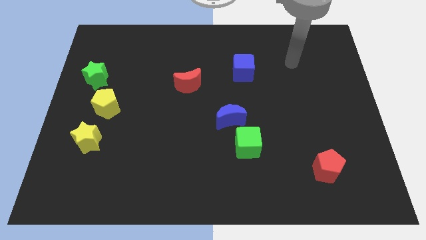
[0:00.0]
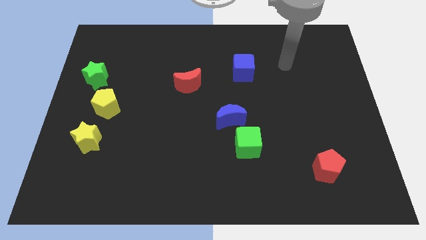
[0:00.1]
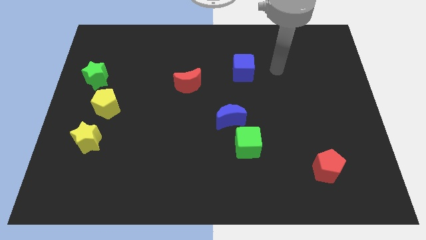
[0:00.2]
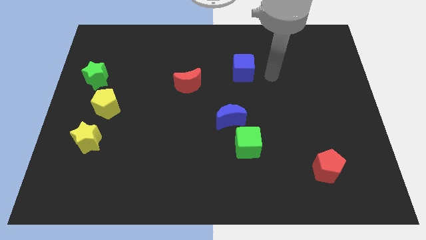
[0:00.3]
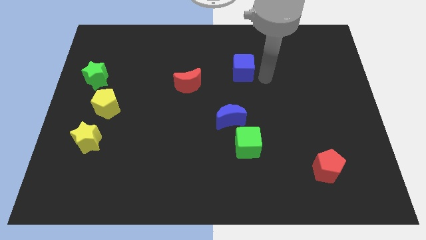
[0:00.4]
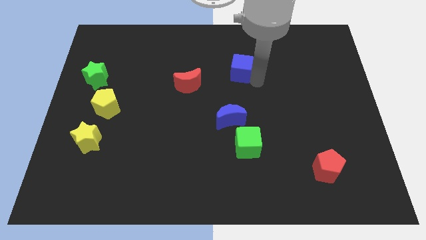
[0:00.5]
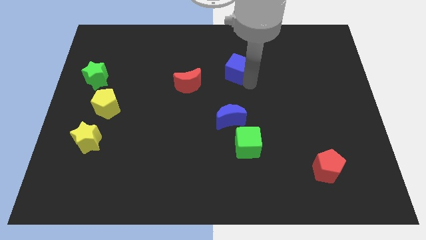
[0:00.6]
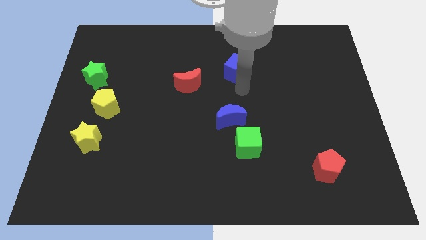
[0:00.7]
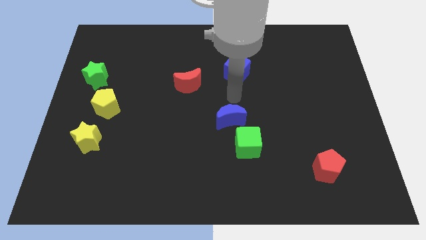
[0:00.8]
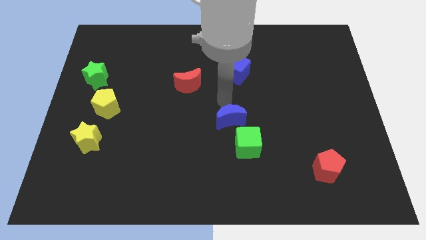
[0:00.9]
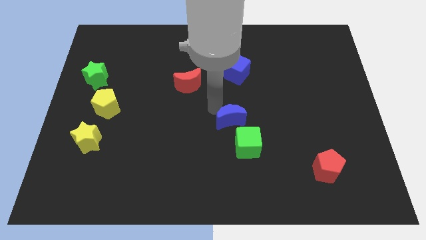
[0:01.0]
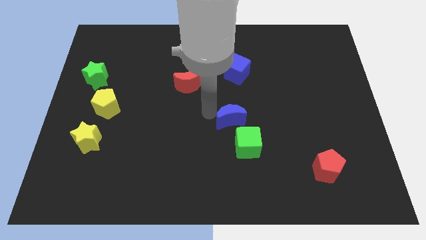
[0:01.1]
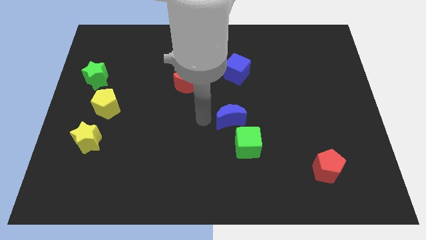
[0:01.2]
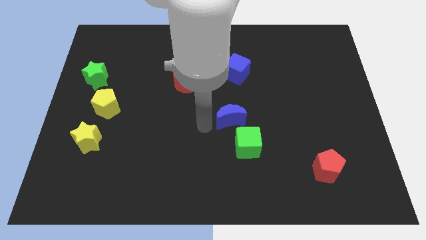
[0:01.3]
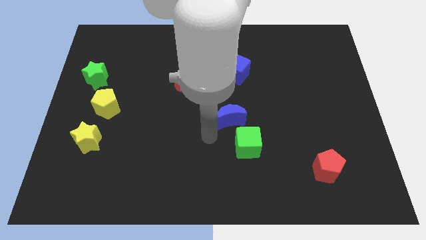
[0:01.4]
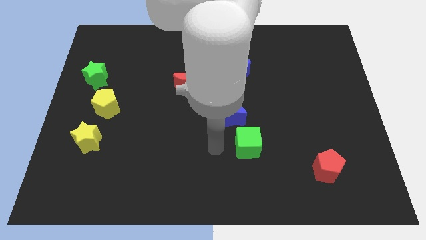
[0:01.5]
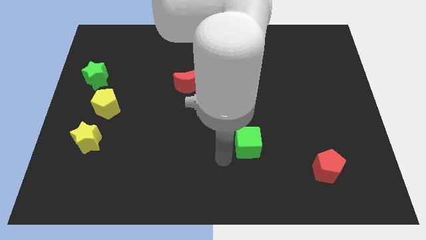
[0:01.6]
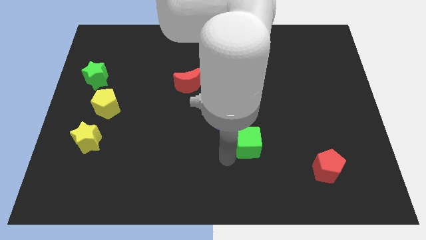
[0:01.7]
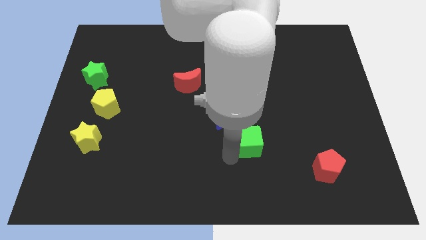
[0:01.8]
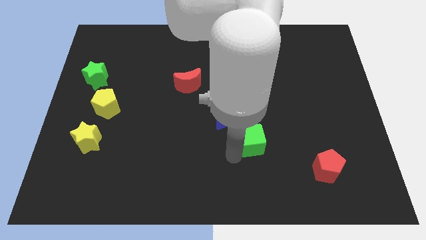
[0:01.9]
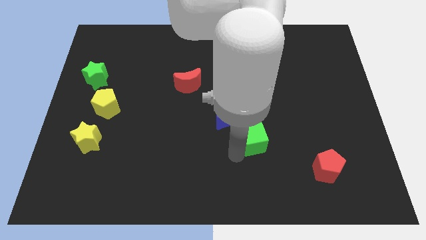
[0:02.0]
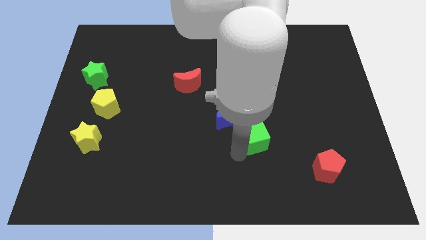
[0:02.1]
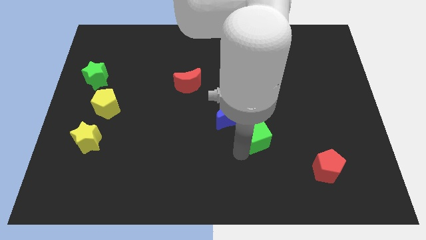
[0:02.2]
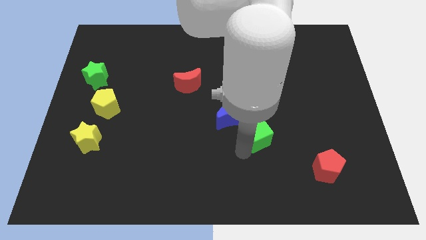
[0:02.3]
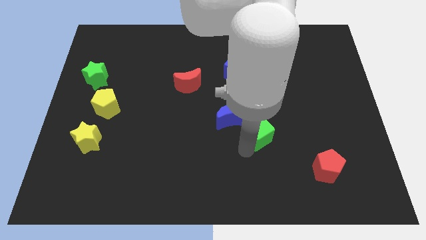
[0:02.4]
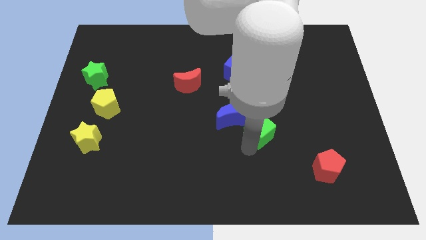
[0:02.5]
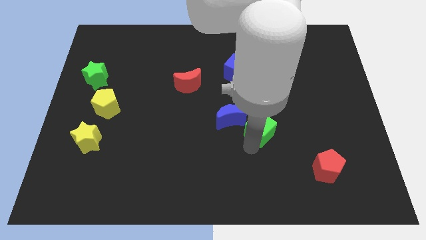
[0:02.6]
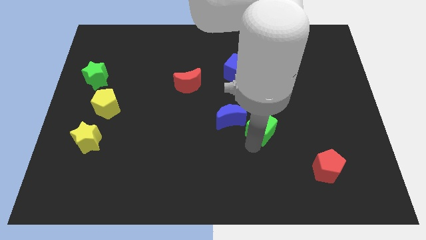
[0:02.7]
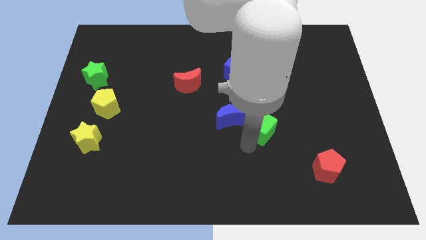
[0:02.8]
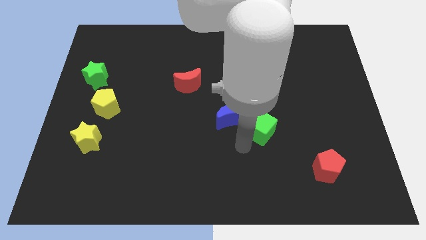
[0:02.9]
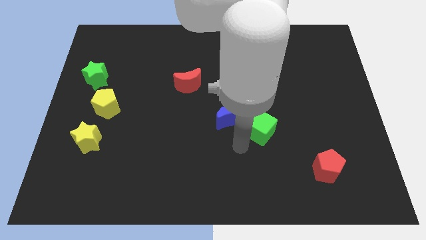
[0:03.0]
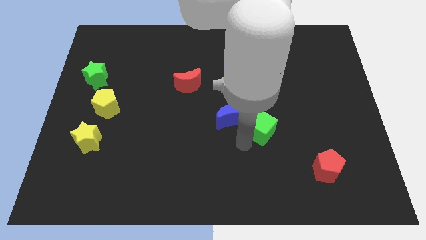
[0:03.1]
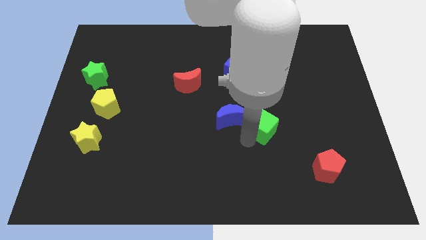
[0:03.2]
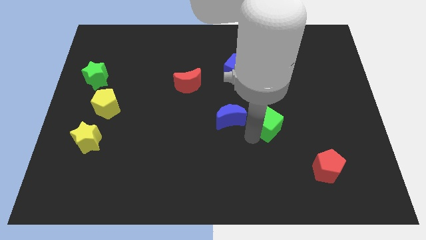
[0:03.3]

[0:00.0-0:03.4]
slide the green cube a little bit up and right diagonally

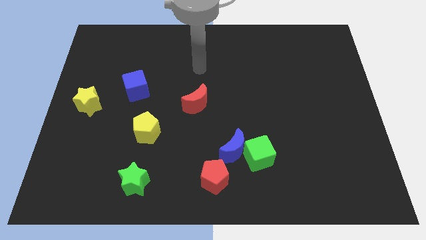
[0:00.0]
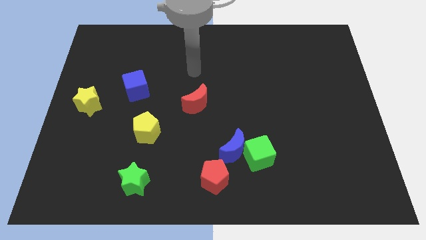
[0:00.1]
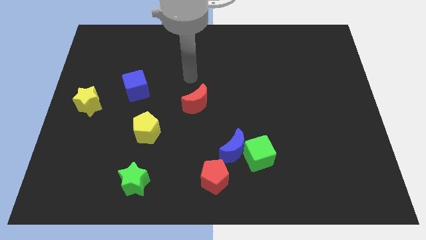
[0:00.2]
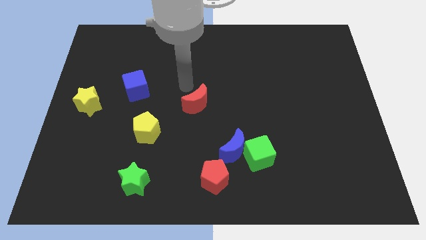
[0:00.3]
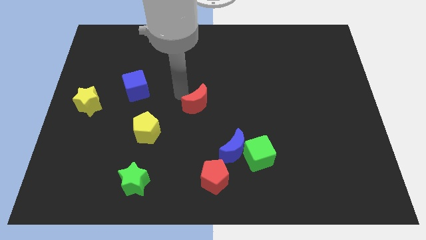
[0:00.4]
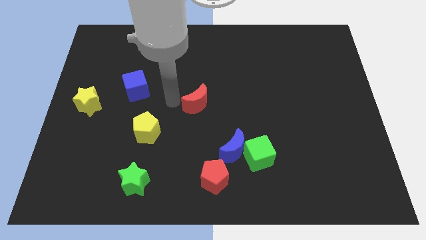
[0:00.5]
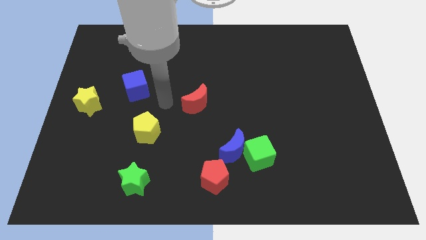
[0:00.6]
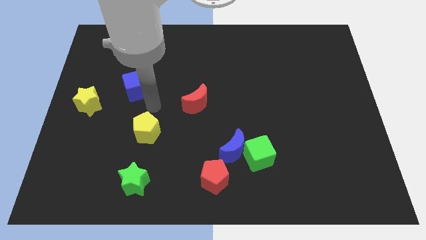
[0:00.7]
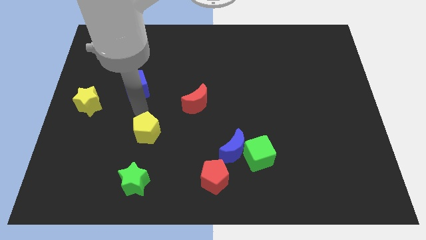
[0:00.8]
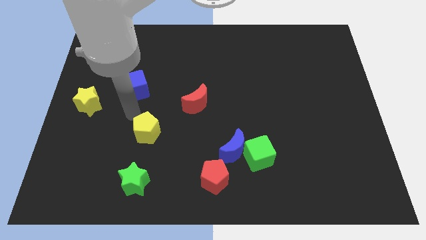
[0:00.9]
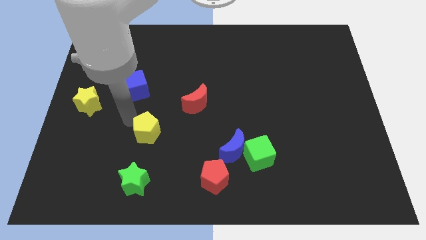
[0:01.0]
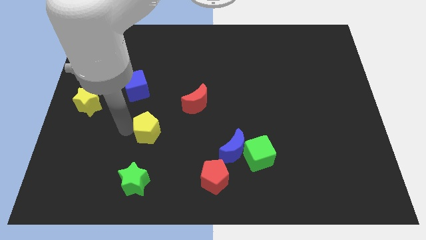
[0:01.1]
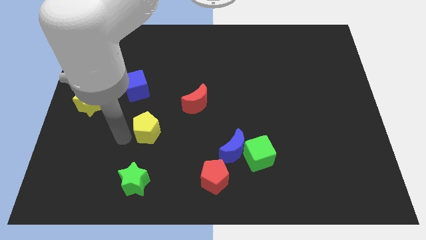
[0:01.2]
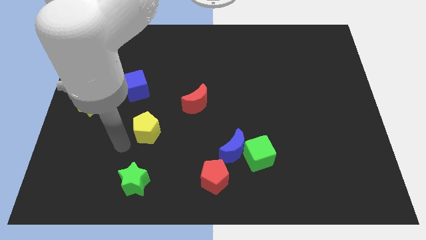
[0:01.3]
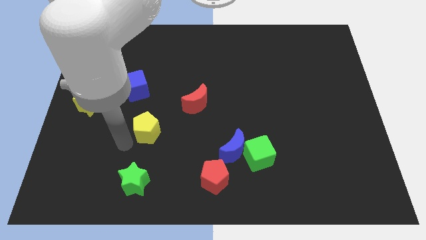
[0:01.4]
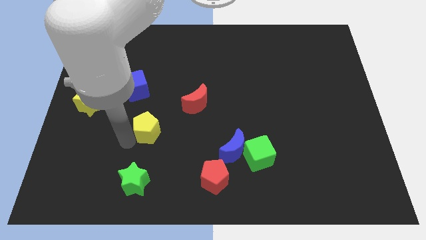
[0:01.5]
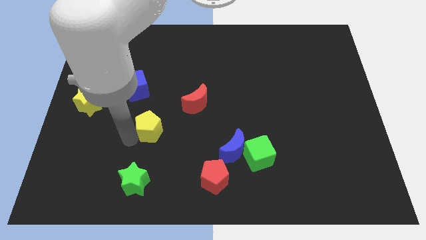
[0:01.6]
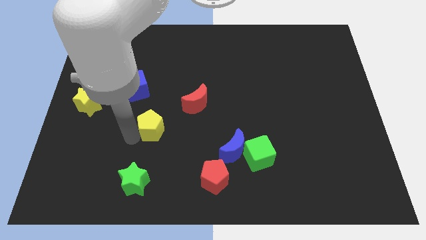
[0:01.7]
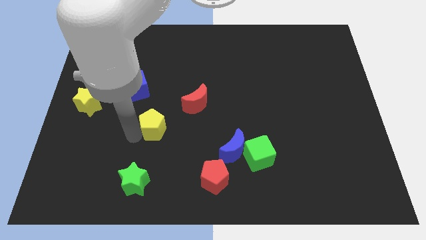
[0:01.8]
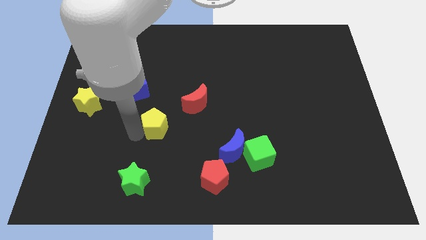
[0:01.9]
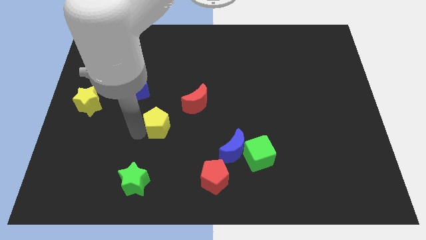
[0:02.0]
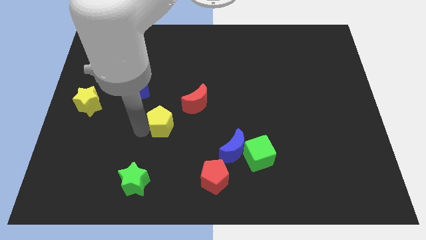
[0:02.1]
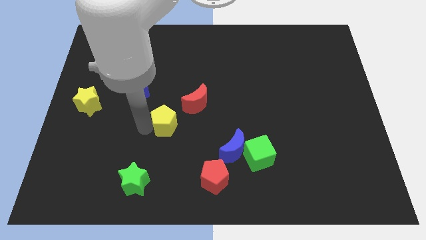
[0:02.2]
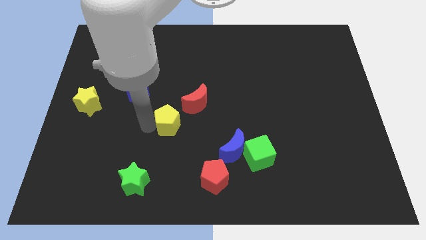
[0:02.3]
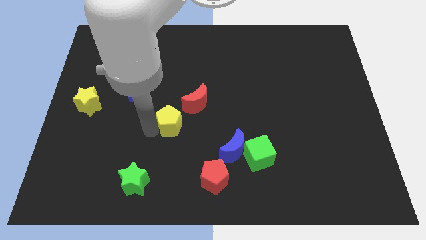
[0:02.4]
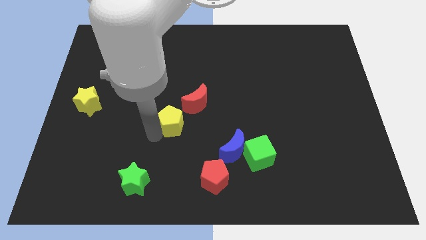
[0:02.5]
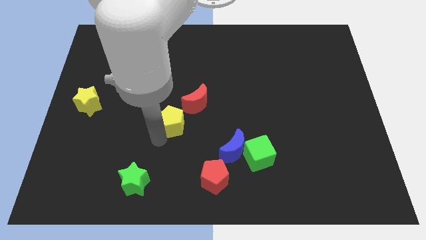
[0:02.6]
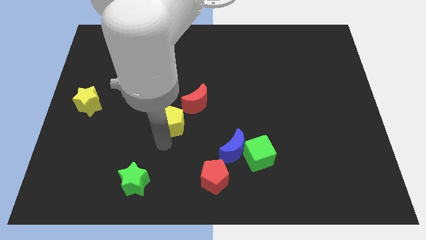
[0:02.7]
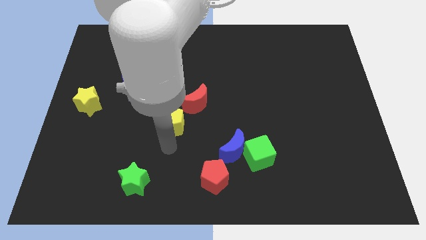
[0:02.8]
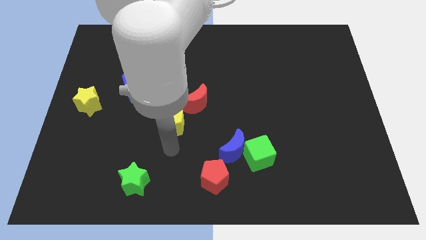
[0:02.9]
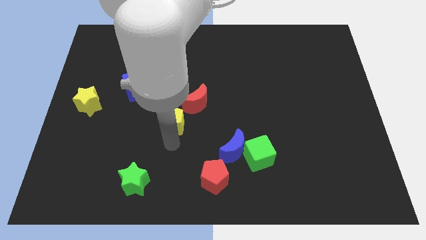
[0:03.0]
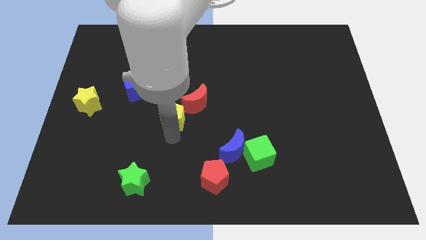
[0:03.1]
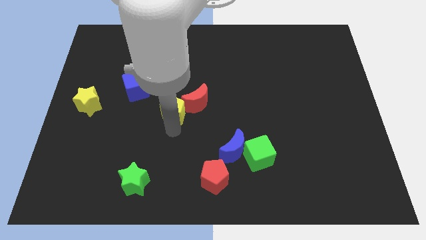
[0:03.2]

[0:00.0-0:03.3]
slide the yellow pentagon a little diagonally upwards and right

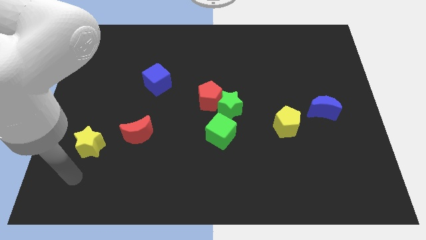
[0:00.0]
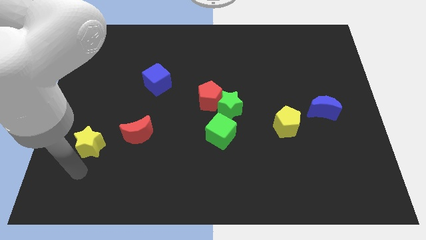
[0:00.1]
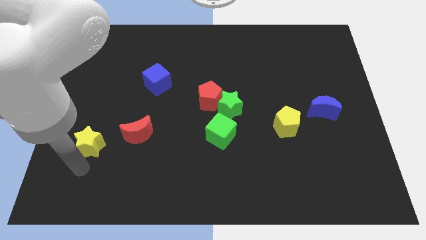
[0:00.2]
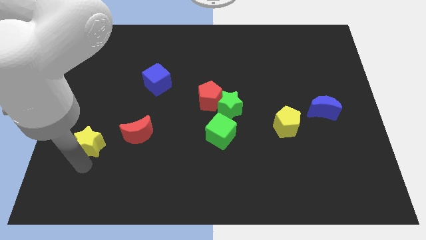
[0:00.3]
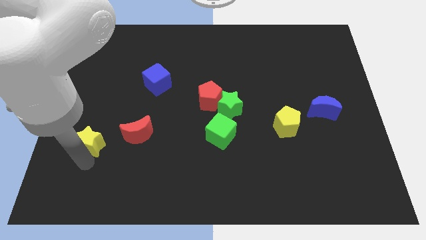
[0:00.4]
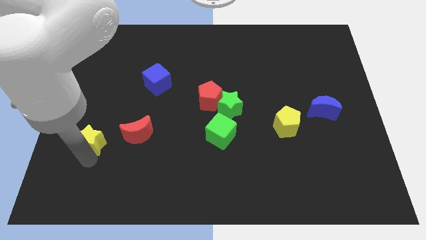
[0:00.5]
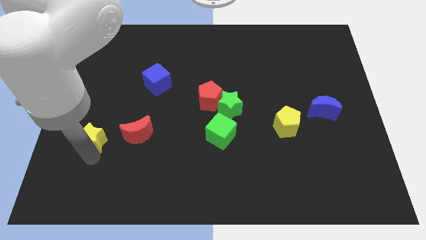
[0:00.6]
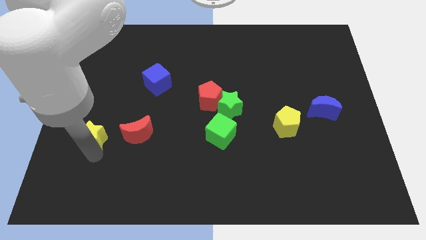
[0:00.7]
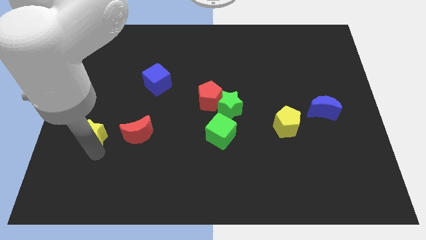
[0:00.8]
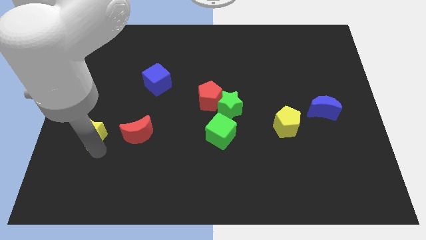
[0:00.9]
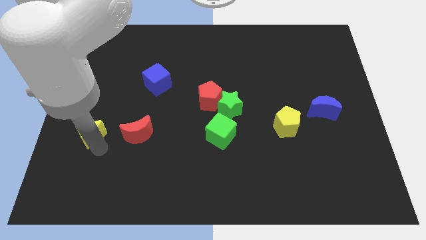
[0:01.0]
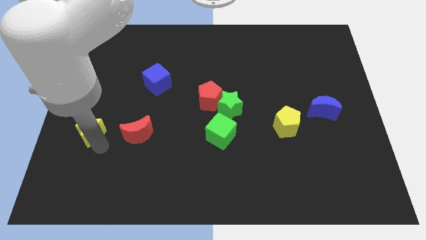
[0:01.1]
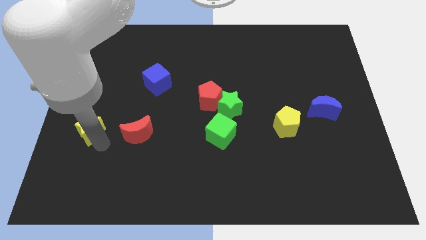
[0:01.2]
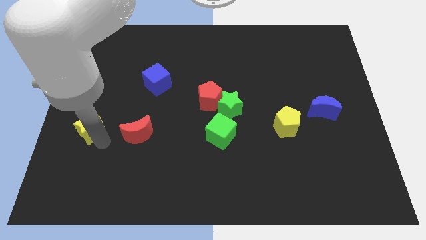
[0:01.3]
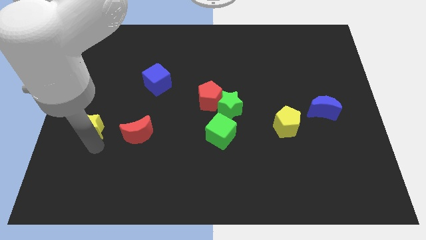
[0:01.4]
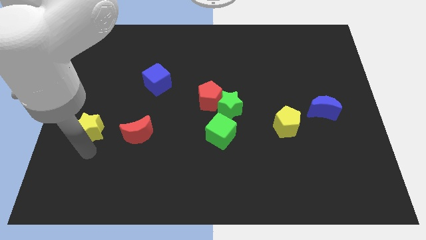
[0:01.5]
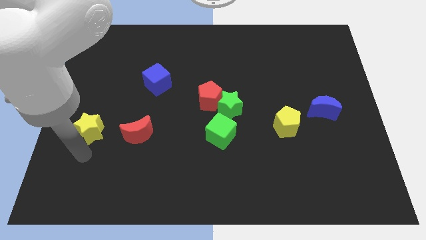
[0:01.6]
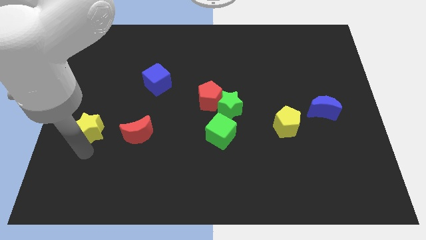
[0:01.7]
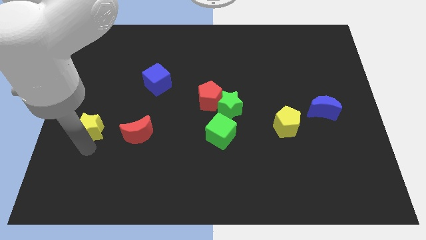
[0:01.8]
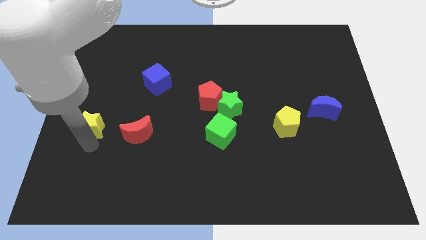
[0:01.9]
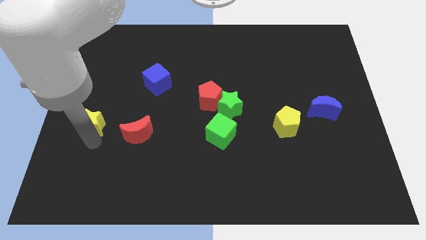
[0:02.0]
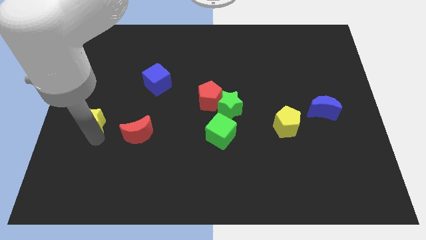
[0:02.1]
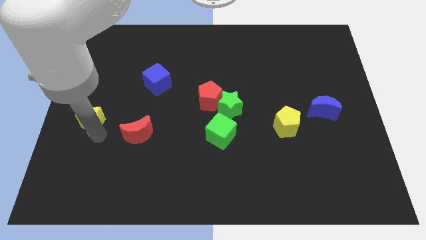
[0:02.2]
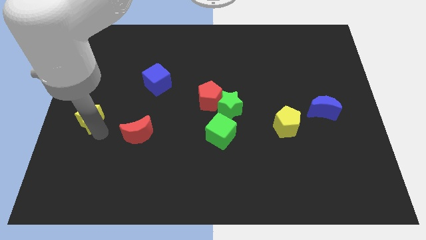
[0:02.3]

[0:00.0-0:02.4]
push the yellow star slightly upwards
